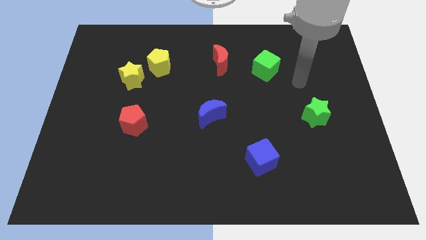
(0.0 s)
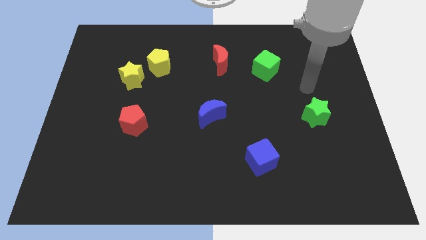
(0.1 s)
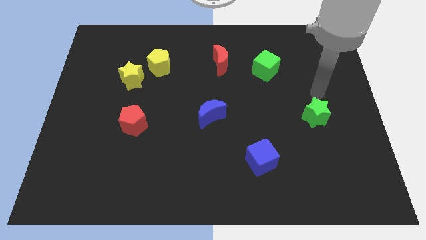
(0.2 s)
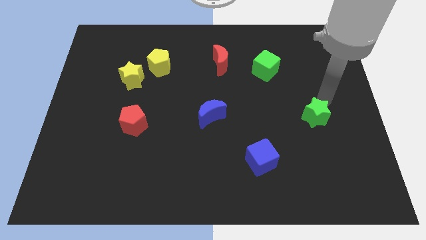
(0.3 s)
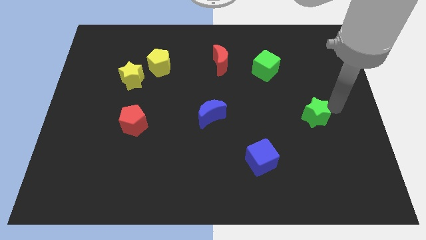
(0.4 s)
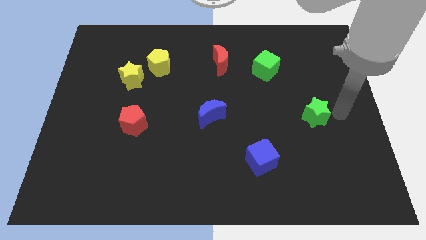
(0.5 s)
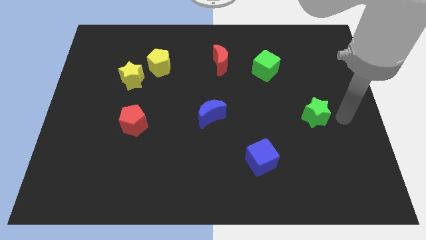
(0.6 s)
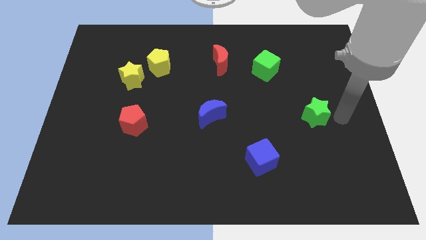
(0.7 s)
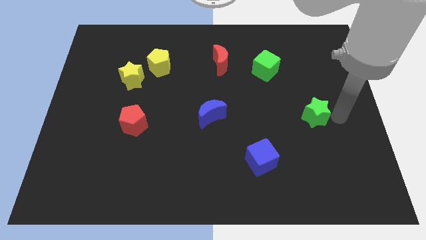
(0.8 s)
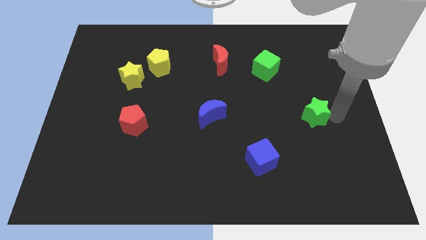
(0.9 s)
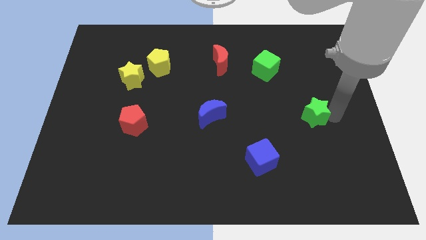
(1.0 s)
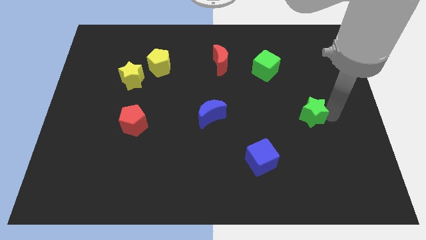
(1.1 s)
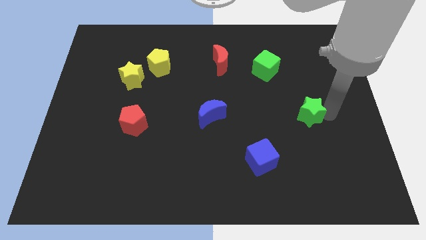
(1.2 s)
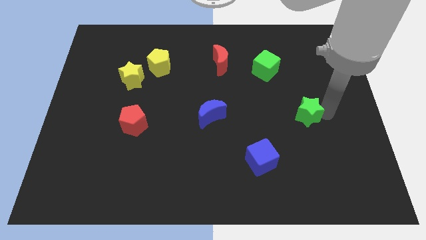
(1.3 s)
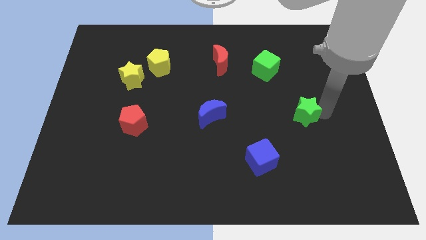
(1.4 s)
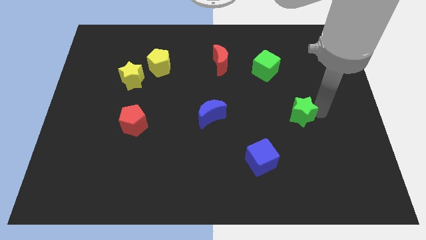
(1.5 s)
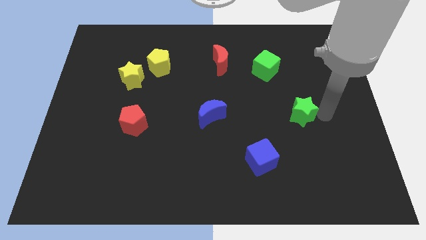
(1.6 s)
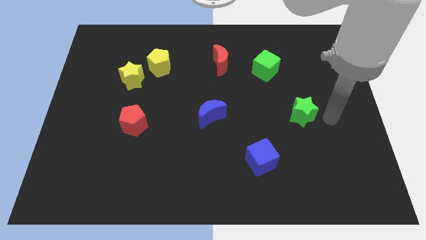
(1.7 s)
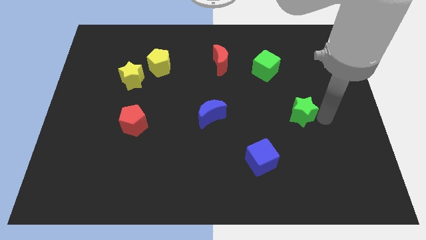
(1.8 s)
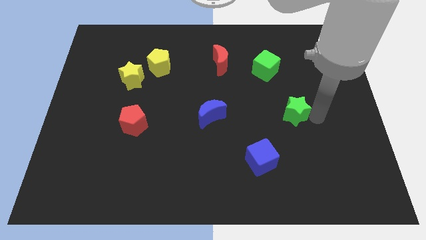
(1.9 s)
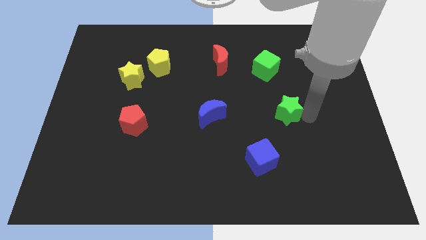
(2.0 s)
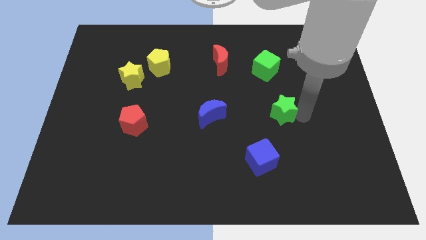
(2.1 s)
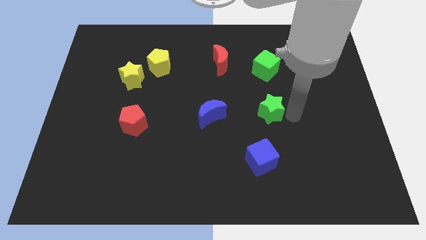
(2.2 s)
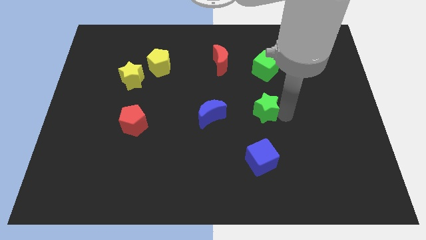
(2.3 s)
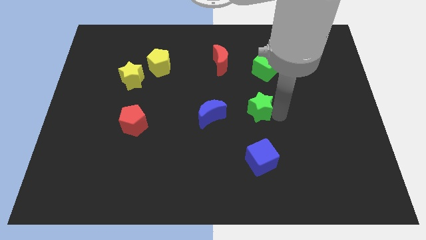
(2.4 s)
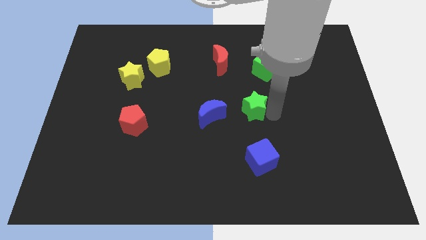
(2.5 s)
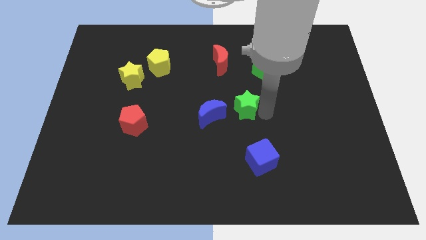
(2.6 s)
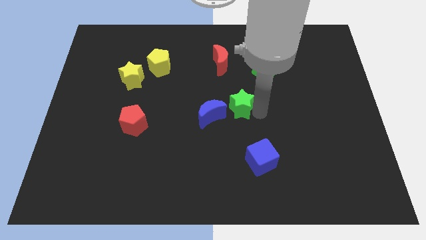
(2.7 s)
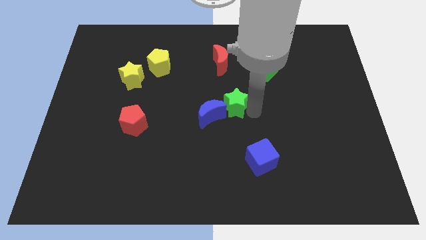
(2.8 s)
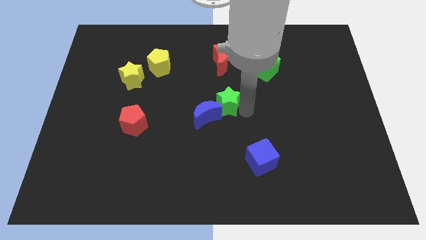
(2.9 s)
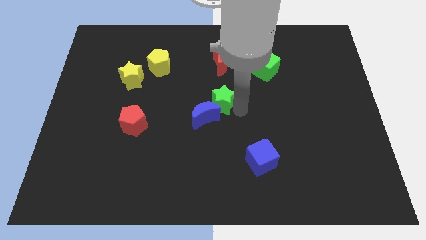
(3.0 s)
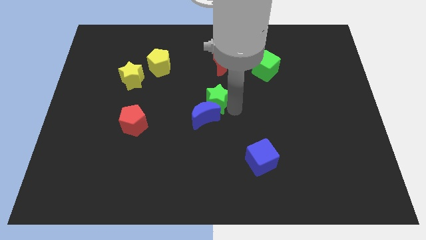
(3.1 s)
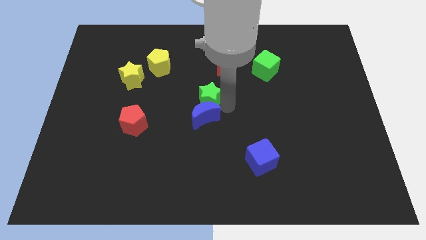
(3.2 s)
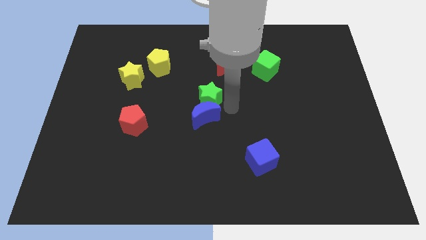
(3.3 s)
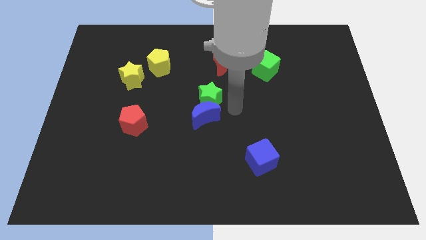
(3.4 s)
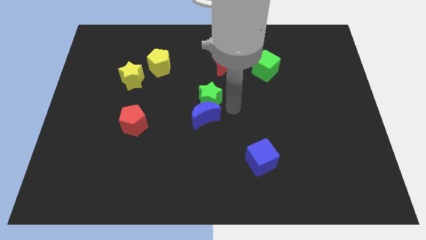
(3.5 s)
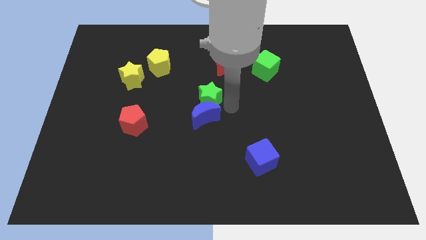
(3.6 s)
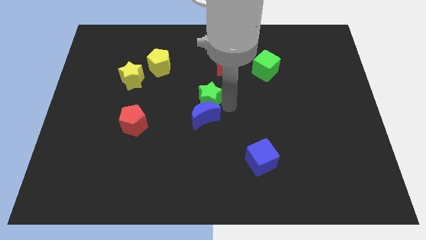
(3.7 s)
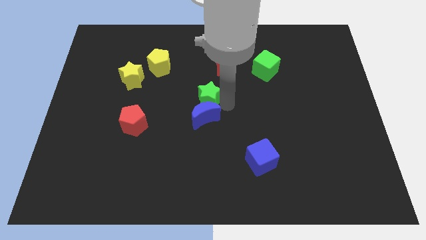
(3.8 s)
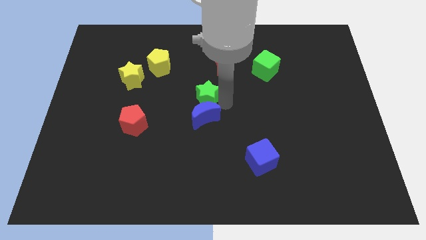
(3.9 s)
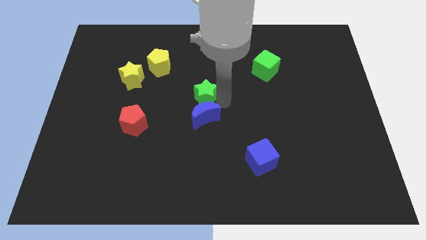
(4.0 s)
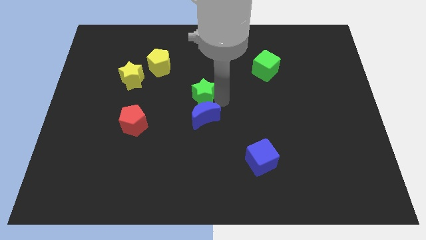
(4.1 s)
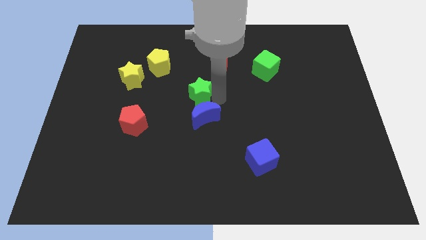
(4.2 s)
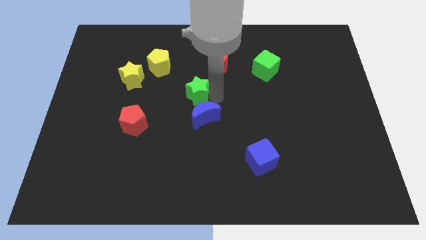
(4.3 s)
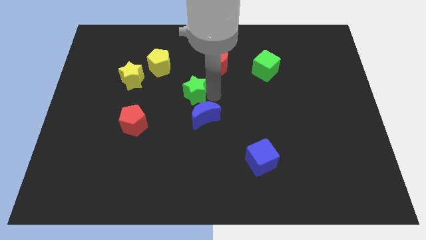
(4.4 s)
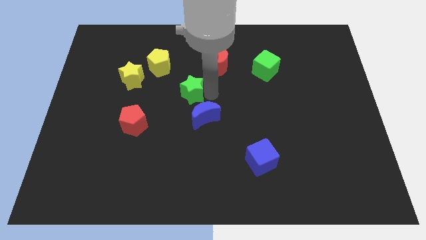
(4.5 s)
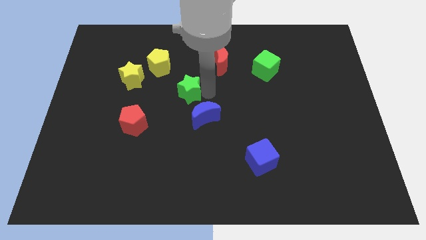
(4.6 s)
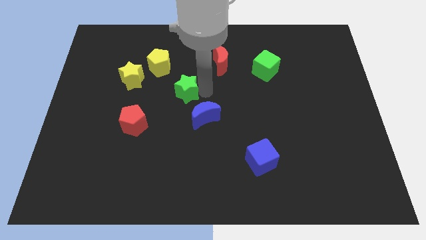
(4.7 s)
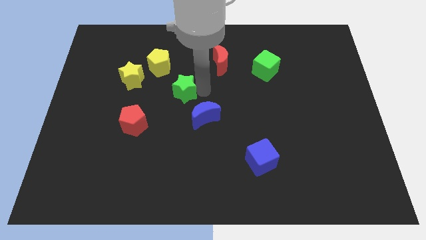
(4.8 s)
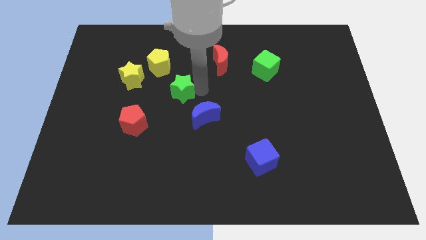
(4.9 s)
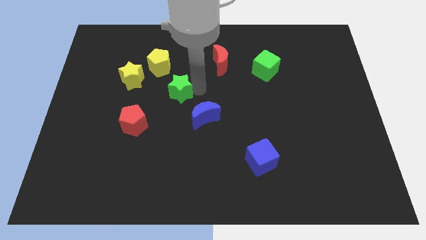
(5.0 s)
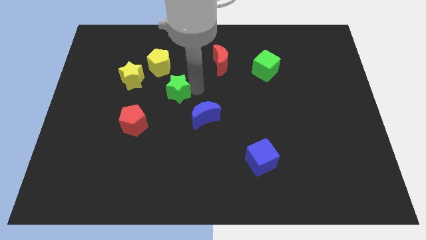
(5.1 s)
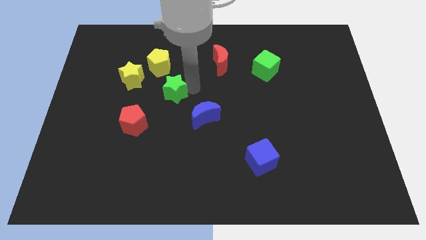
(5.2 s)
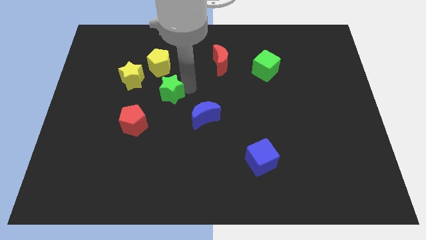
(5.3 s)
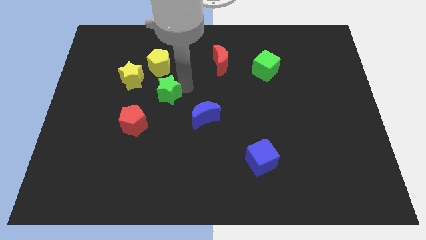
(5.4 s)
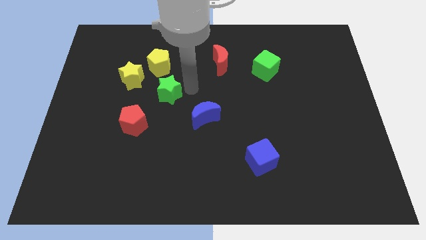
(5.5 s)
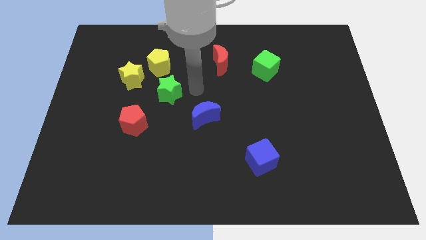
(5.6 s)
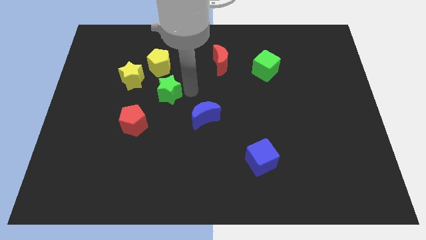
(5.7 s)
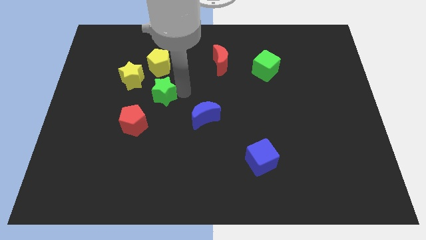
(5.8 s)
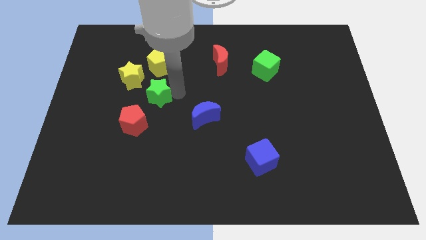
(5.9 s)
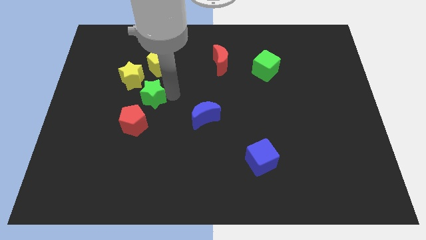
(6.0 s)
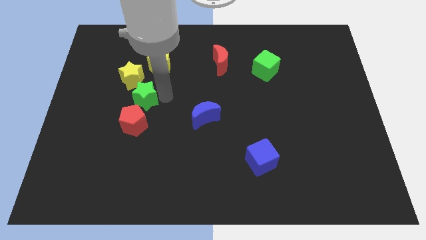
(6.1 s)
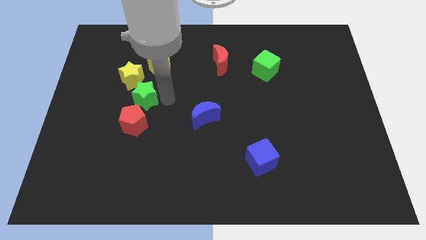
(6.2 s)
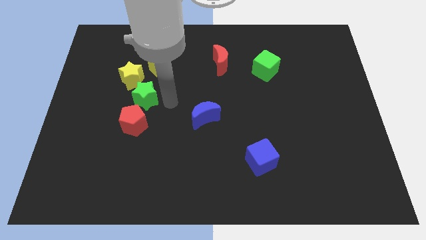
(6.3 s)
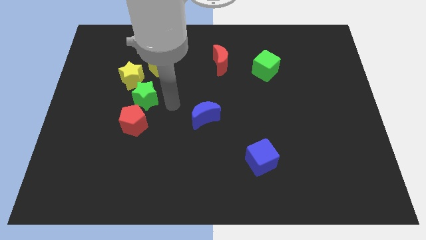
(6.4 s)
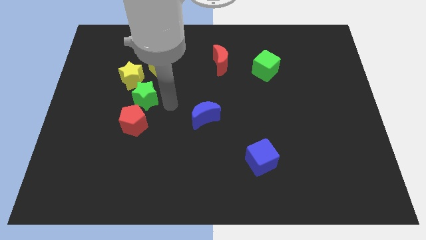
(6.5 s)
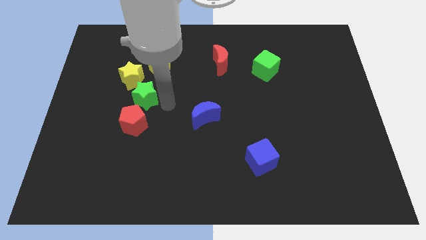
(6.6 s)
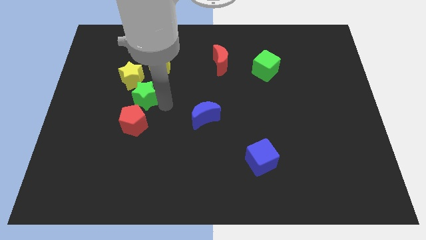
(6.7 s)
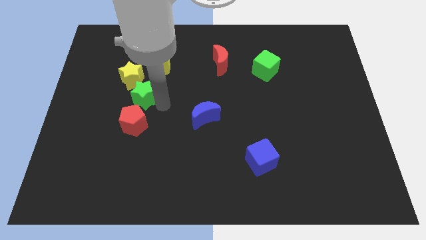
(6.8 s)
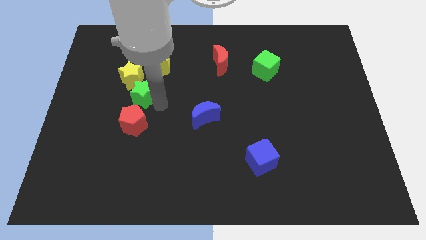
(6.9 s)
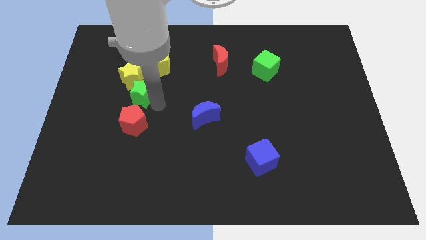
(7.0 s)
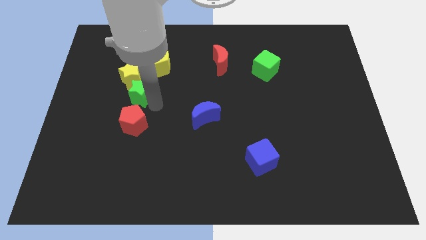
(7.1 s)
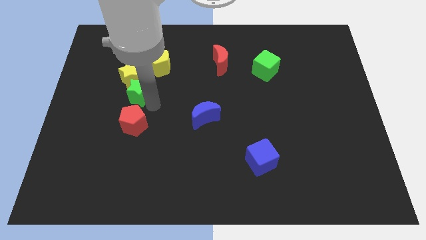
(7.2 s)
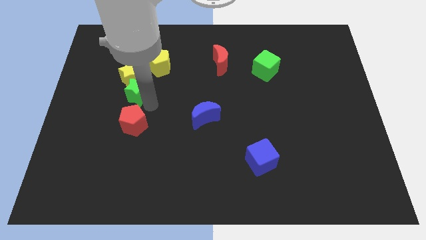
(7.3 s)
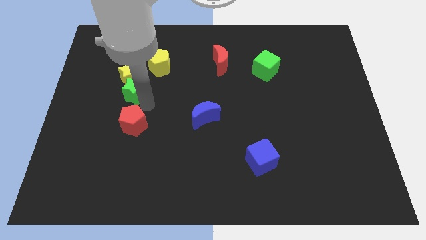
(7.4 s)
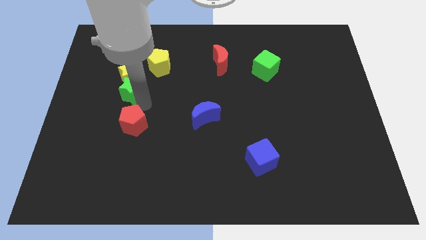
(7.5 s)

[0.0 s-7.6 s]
slide the green star diagonally down and to the left of the yellow star

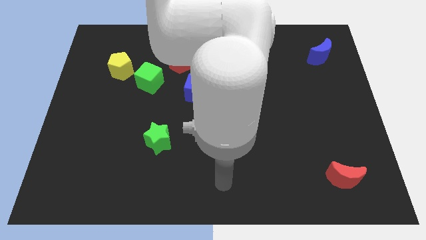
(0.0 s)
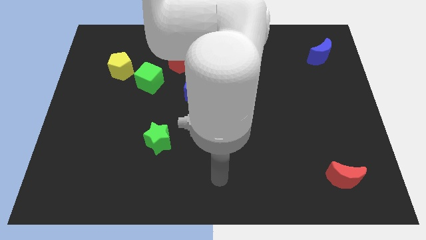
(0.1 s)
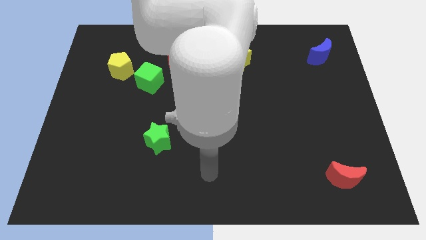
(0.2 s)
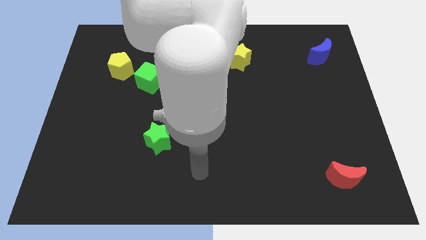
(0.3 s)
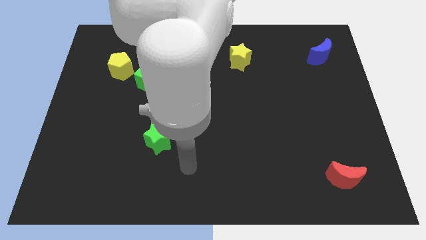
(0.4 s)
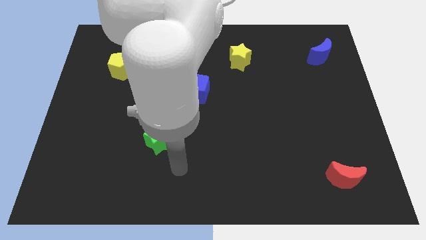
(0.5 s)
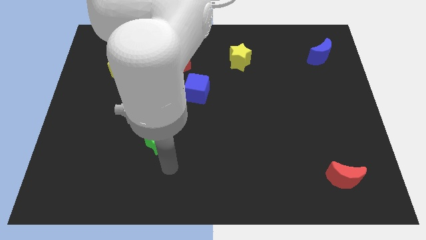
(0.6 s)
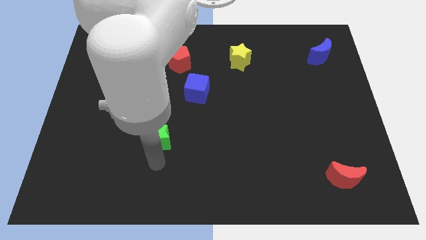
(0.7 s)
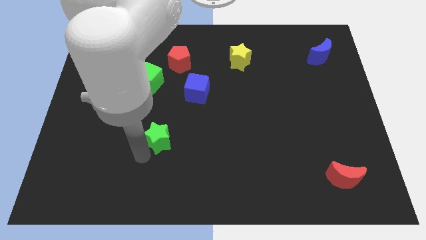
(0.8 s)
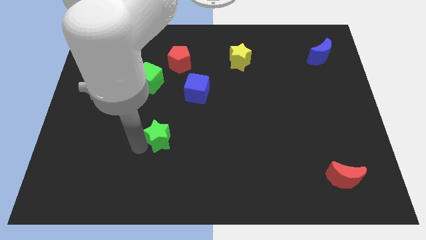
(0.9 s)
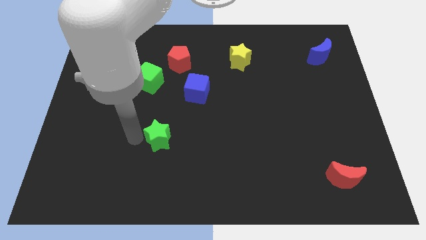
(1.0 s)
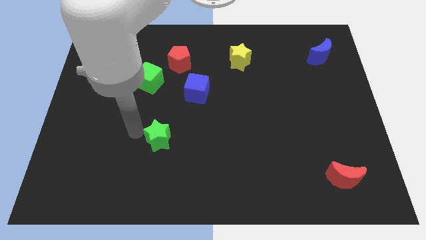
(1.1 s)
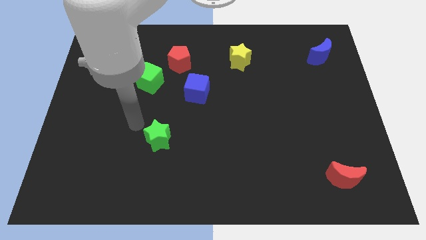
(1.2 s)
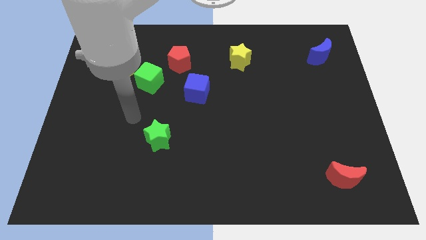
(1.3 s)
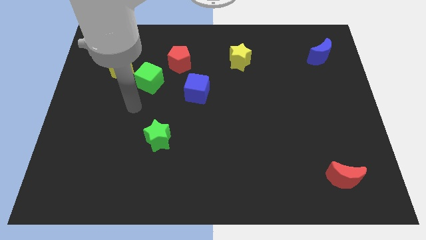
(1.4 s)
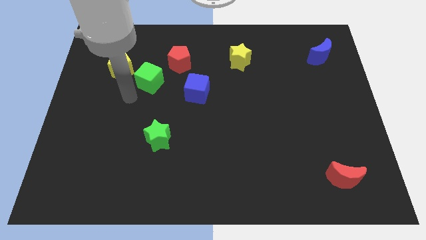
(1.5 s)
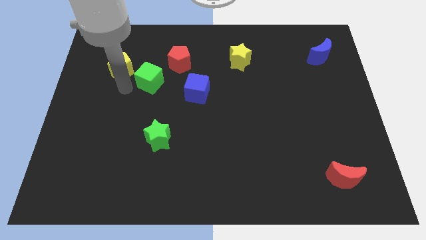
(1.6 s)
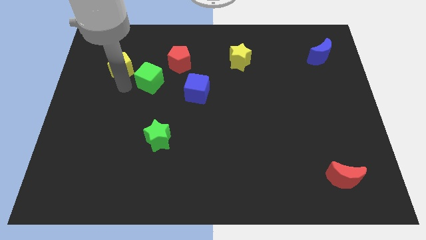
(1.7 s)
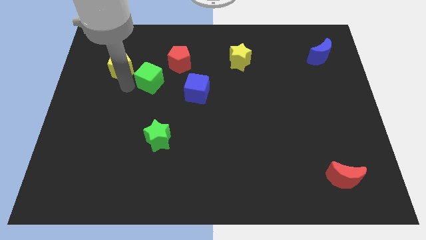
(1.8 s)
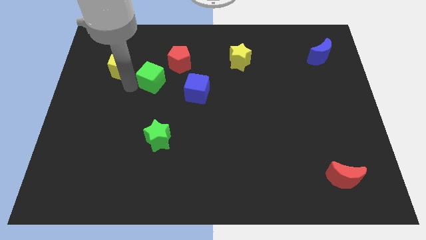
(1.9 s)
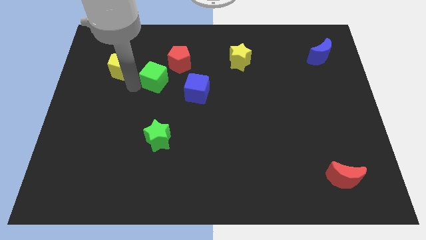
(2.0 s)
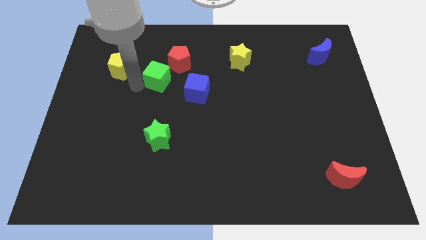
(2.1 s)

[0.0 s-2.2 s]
slide the green cube to the top left side of the blue cube
